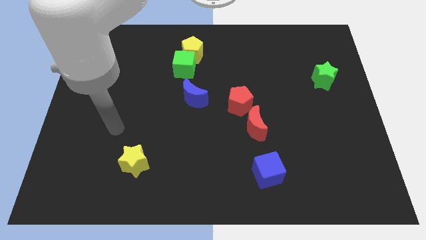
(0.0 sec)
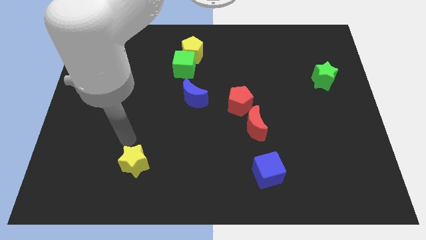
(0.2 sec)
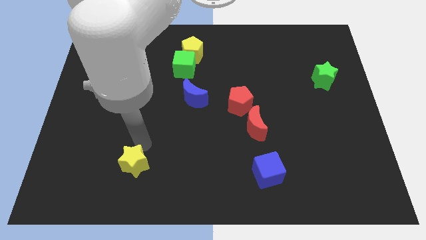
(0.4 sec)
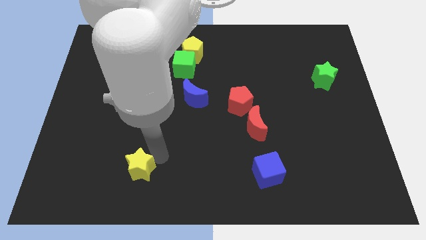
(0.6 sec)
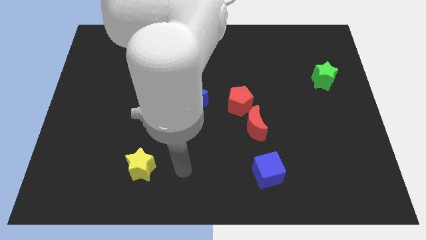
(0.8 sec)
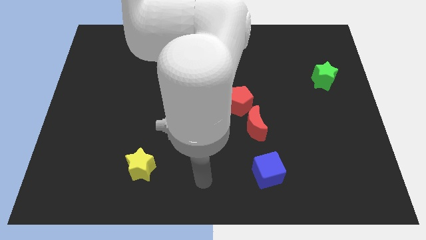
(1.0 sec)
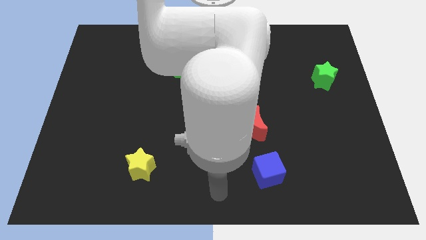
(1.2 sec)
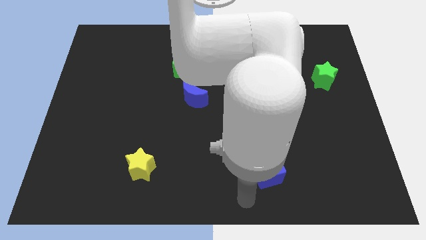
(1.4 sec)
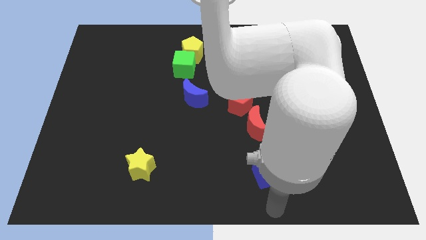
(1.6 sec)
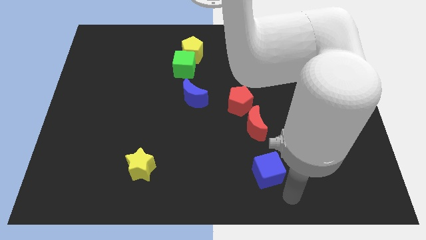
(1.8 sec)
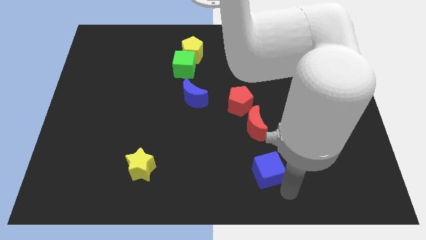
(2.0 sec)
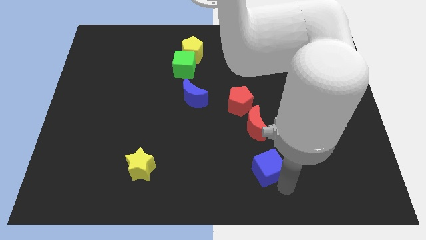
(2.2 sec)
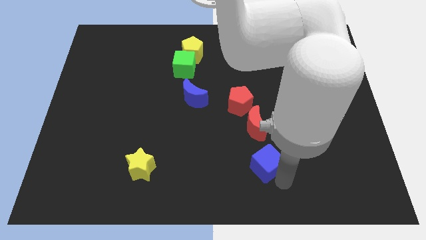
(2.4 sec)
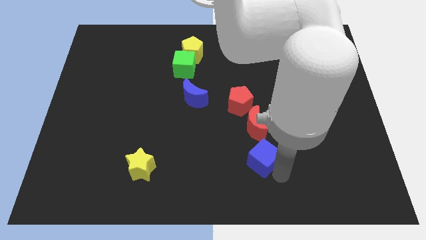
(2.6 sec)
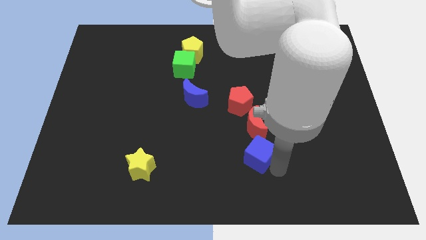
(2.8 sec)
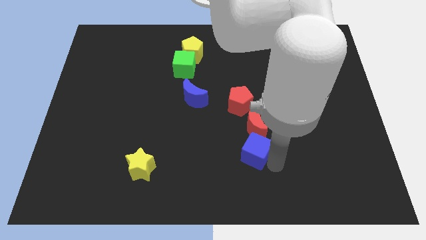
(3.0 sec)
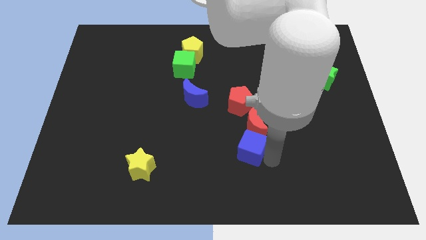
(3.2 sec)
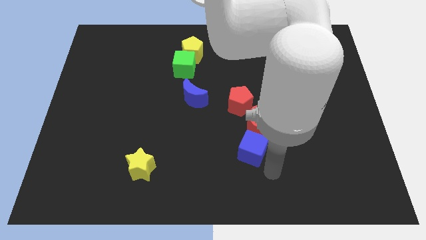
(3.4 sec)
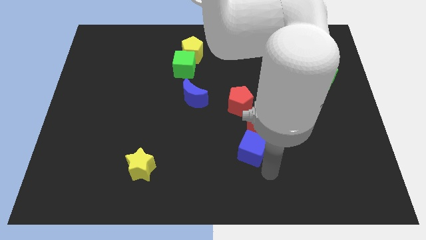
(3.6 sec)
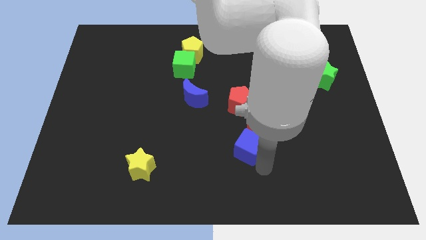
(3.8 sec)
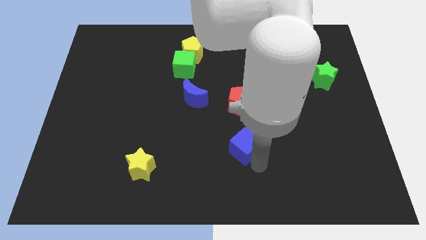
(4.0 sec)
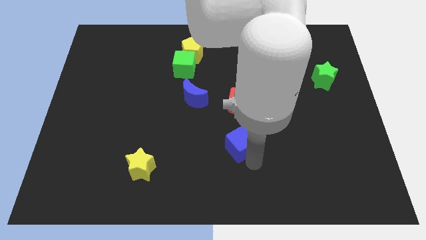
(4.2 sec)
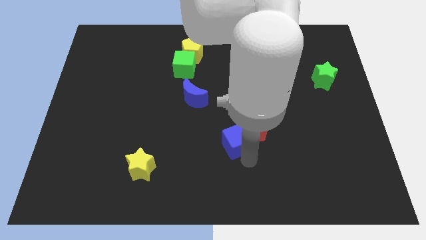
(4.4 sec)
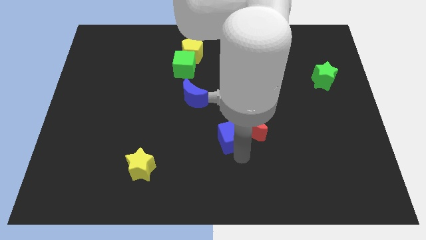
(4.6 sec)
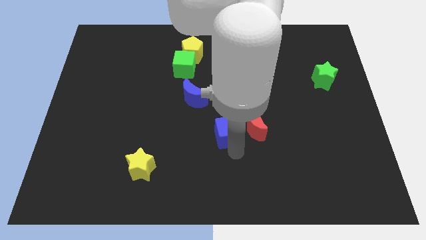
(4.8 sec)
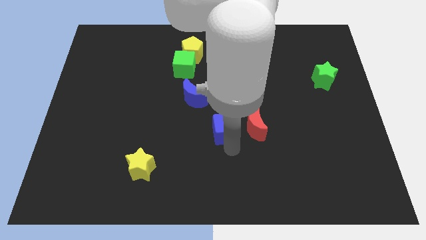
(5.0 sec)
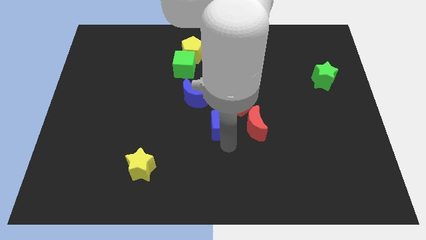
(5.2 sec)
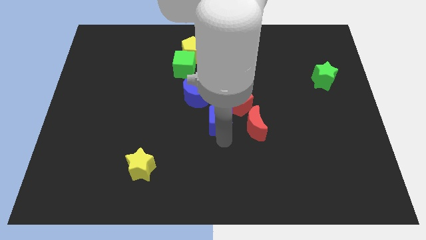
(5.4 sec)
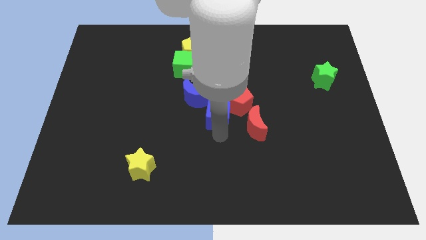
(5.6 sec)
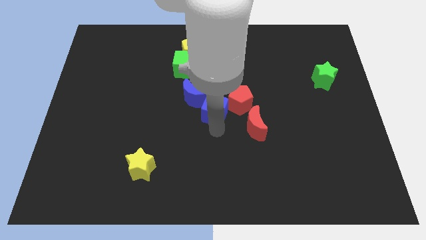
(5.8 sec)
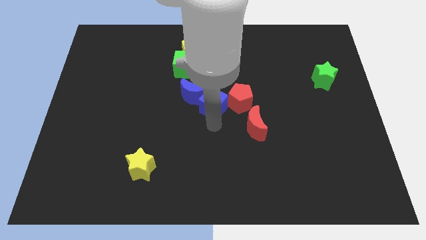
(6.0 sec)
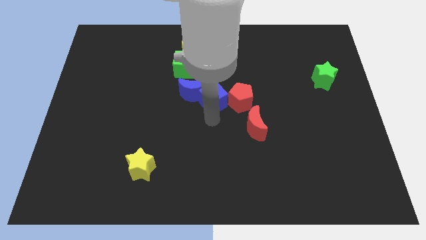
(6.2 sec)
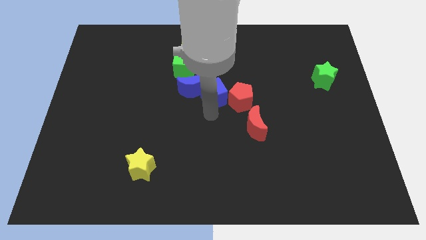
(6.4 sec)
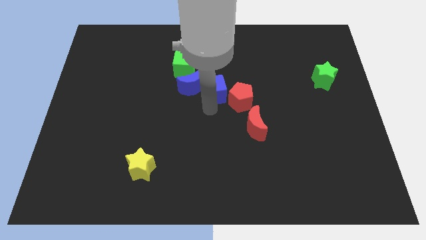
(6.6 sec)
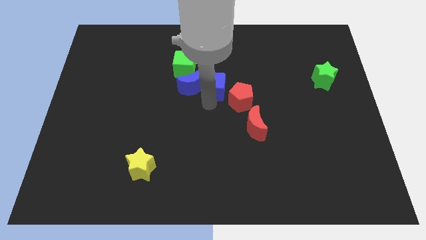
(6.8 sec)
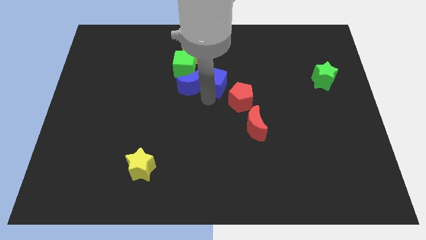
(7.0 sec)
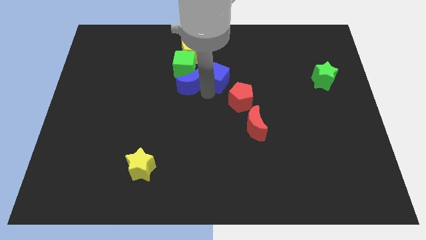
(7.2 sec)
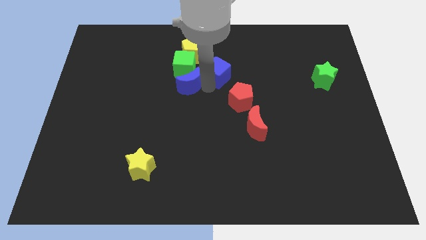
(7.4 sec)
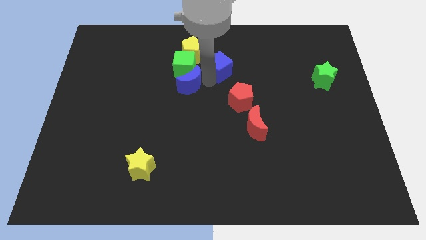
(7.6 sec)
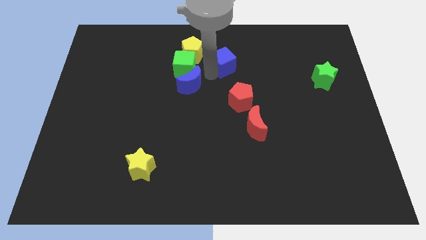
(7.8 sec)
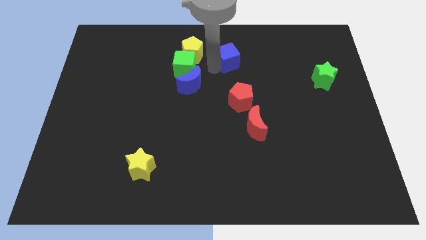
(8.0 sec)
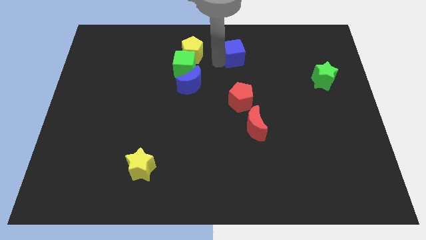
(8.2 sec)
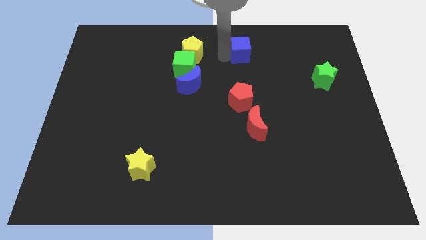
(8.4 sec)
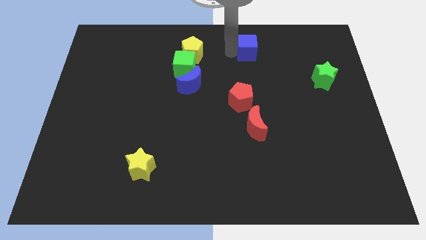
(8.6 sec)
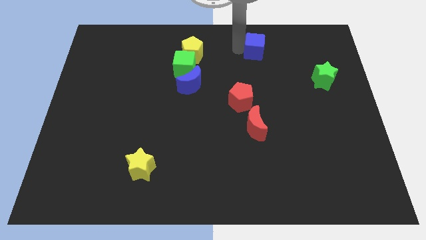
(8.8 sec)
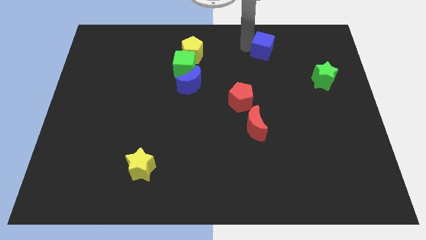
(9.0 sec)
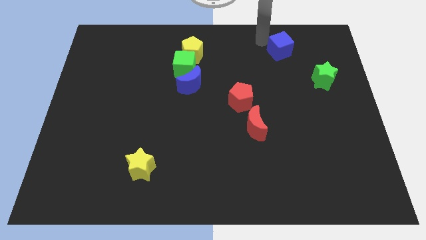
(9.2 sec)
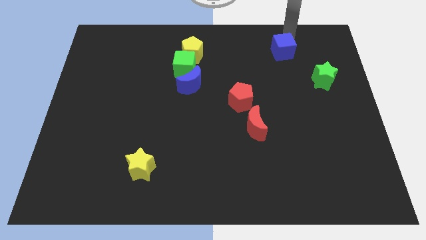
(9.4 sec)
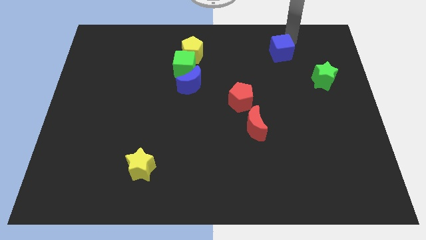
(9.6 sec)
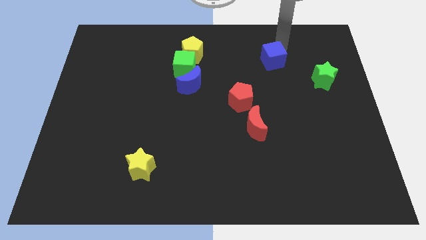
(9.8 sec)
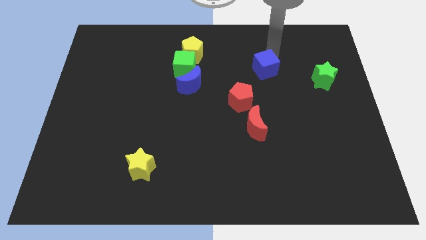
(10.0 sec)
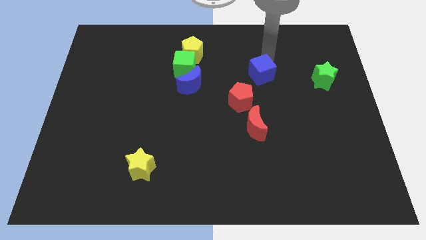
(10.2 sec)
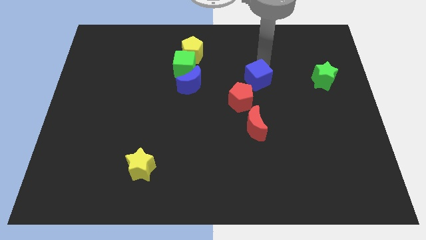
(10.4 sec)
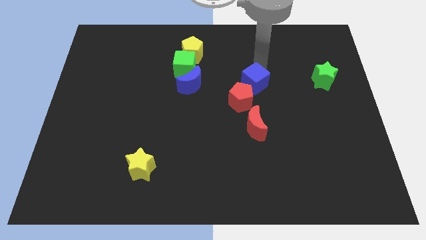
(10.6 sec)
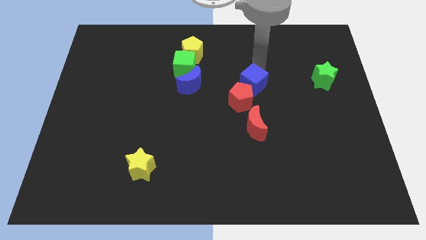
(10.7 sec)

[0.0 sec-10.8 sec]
move the blue cube close to the red pentagon

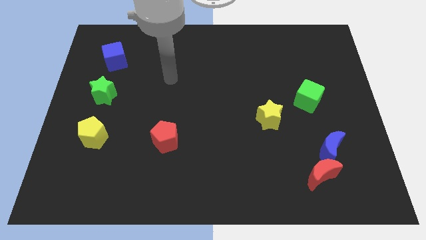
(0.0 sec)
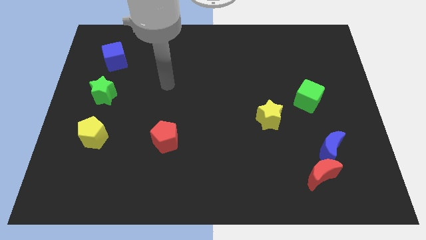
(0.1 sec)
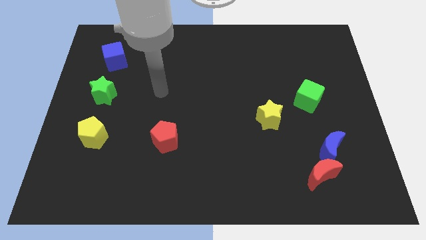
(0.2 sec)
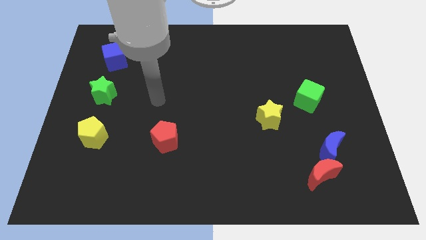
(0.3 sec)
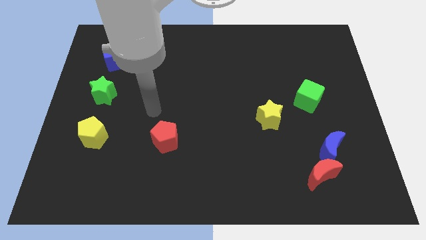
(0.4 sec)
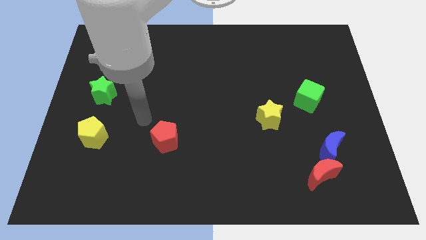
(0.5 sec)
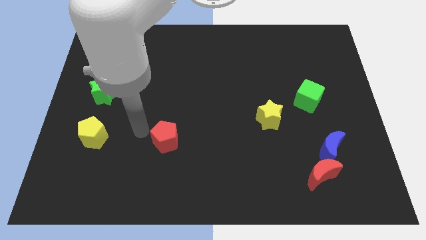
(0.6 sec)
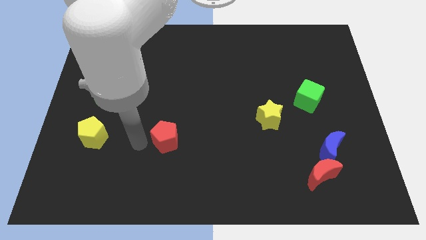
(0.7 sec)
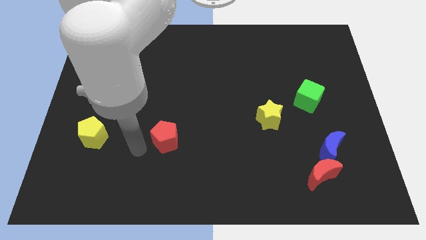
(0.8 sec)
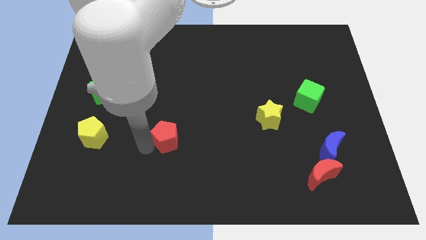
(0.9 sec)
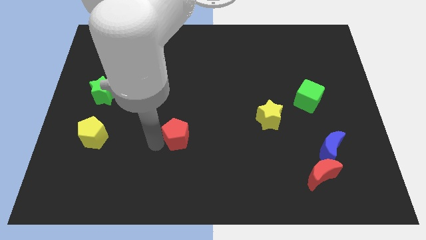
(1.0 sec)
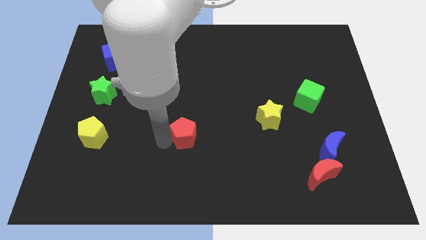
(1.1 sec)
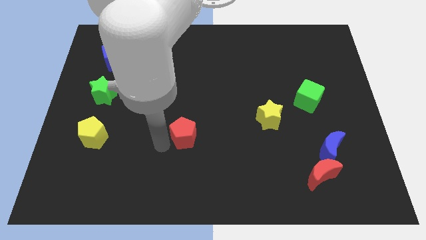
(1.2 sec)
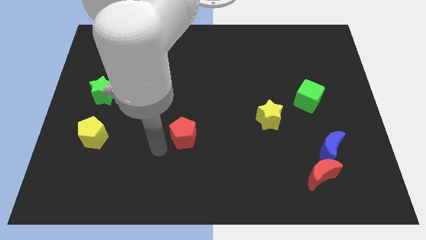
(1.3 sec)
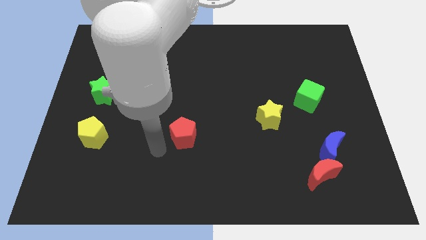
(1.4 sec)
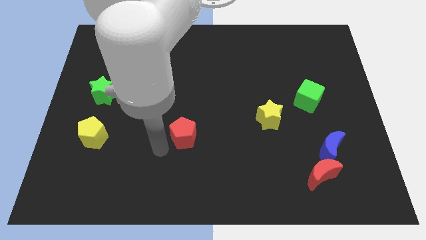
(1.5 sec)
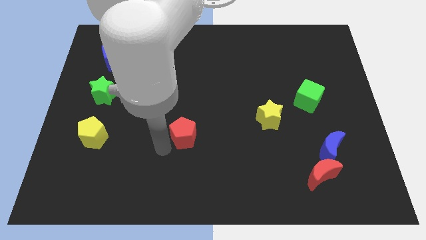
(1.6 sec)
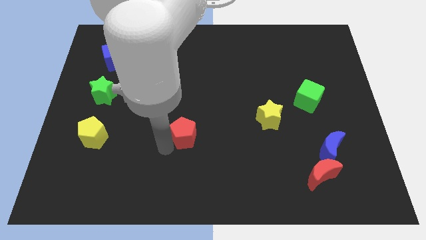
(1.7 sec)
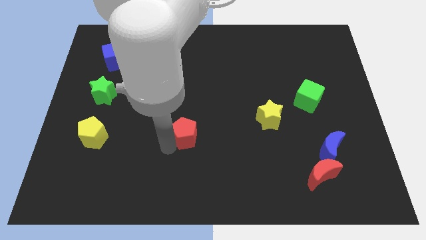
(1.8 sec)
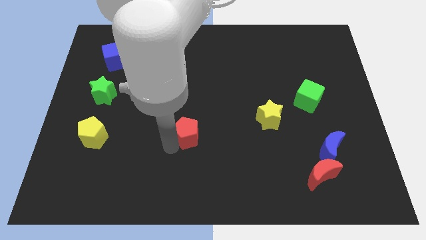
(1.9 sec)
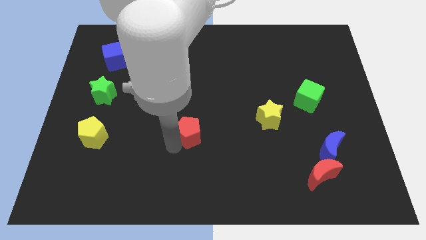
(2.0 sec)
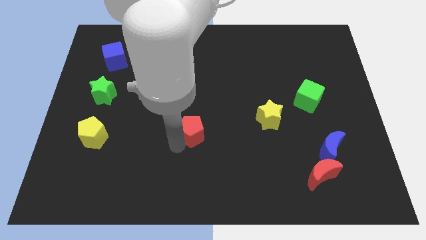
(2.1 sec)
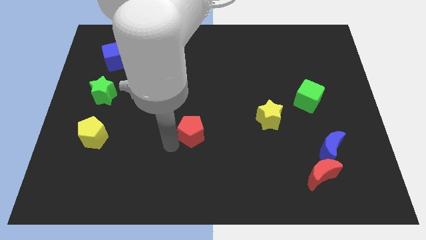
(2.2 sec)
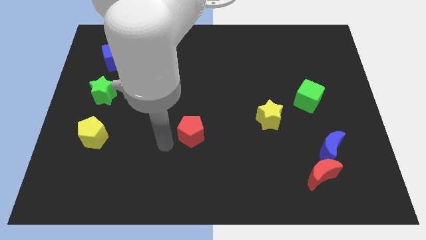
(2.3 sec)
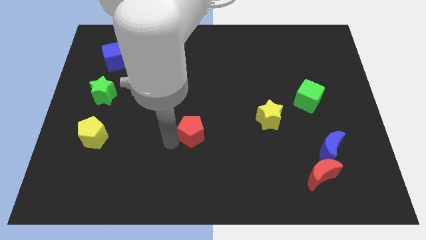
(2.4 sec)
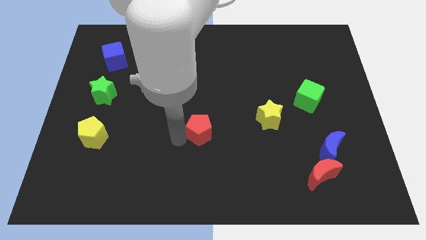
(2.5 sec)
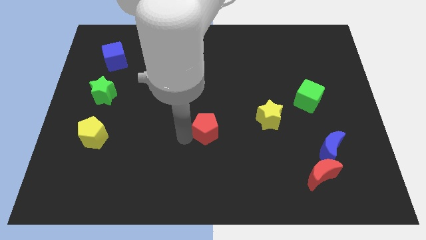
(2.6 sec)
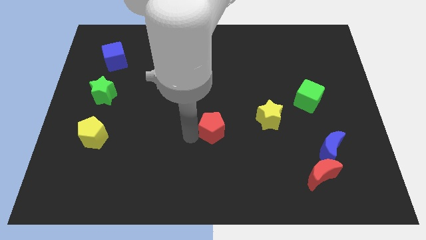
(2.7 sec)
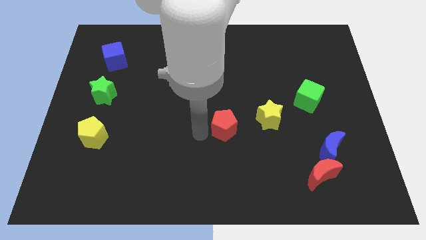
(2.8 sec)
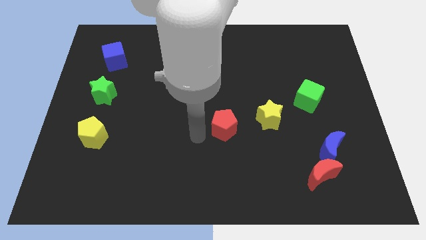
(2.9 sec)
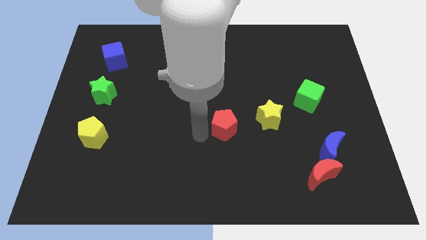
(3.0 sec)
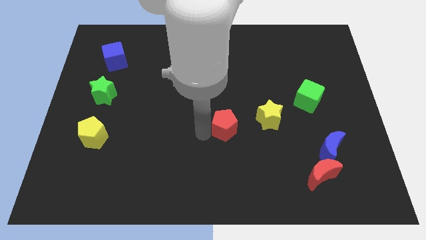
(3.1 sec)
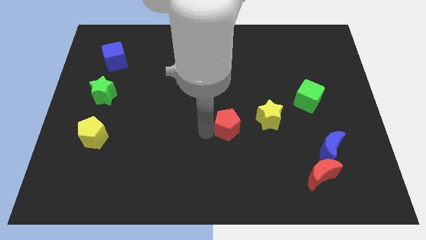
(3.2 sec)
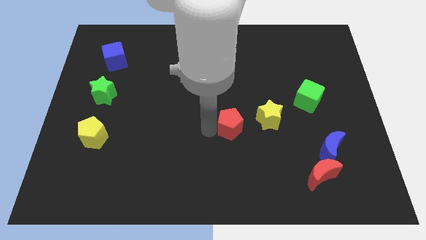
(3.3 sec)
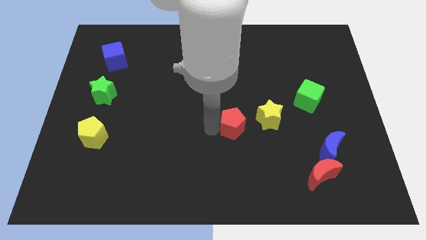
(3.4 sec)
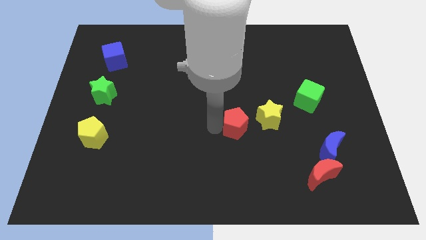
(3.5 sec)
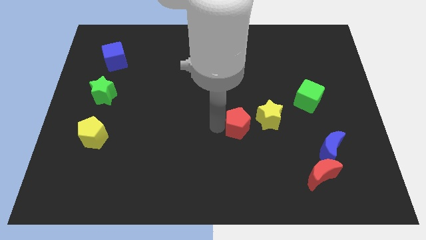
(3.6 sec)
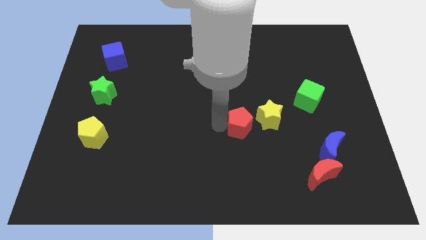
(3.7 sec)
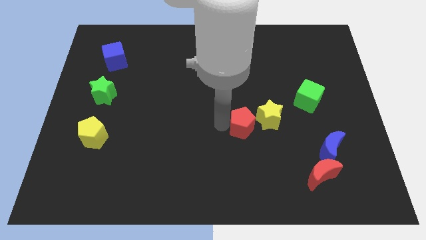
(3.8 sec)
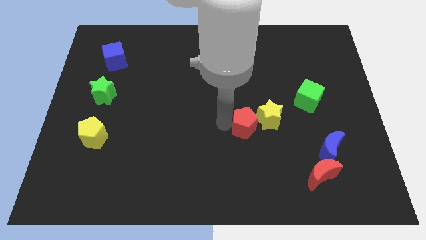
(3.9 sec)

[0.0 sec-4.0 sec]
slide the red pentagon next to the yellow star
